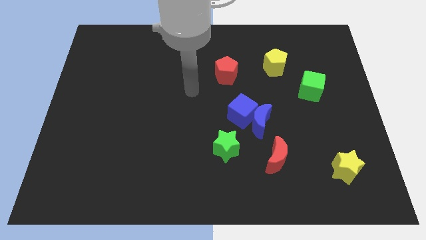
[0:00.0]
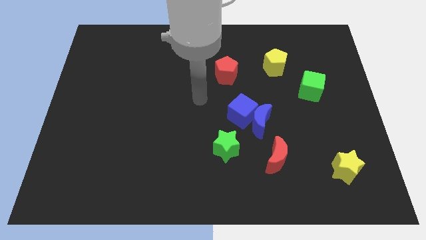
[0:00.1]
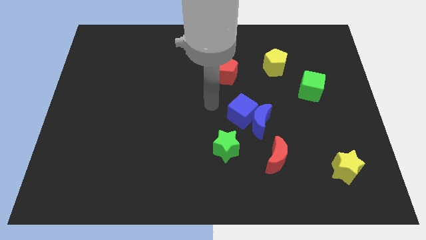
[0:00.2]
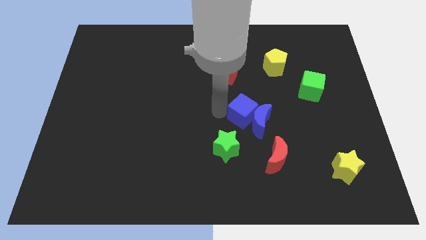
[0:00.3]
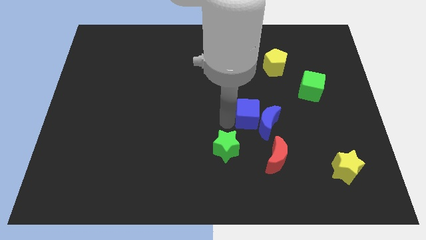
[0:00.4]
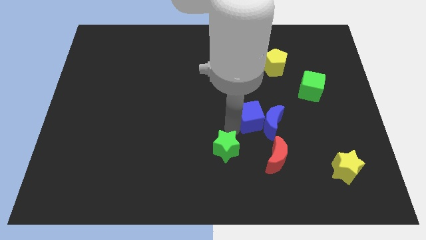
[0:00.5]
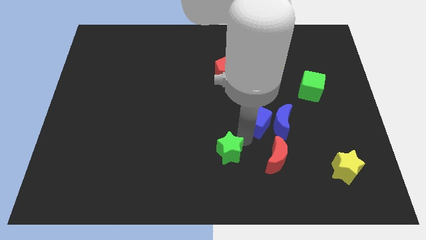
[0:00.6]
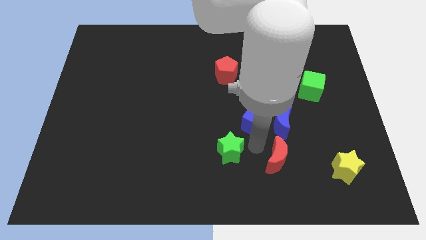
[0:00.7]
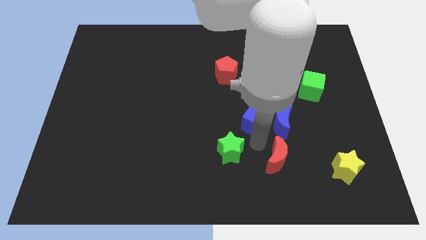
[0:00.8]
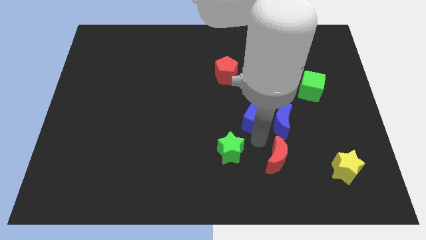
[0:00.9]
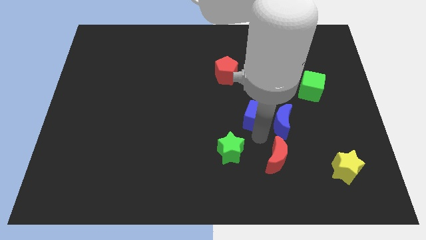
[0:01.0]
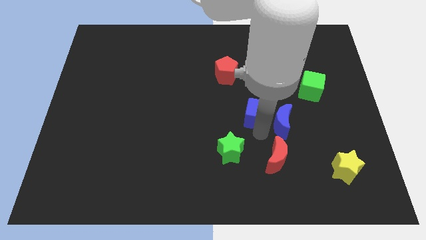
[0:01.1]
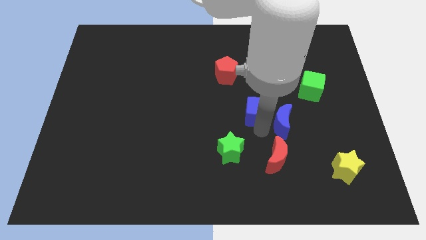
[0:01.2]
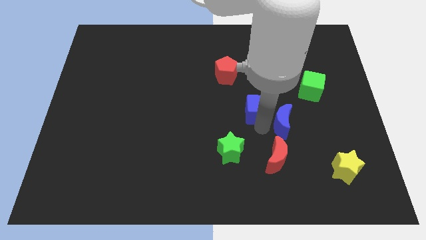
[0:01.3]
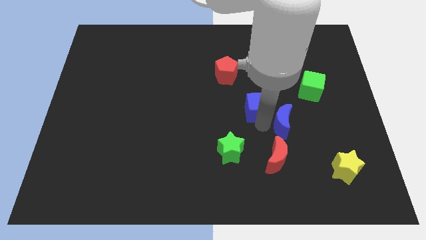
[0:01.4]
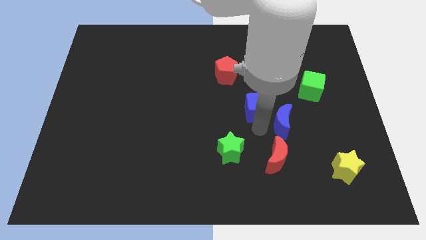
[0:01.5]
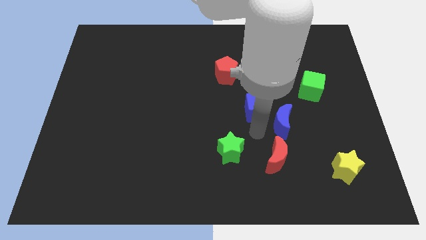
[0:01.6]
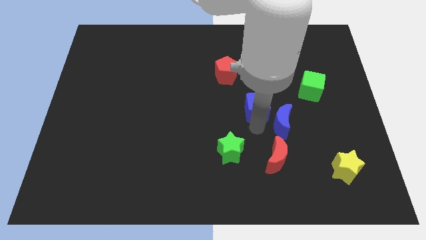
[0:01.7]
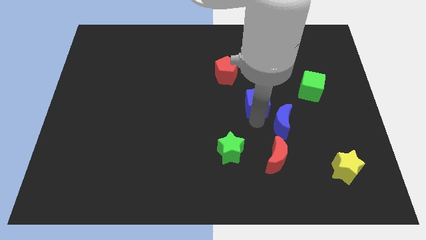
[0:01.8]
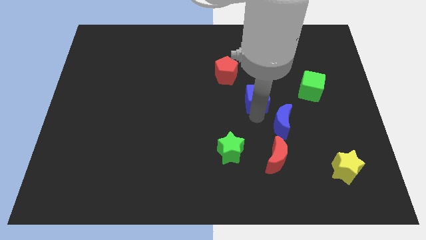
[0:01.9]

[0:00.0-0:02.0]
separate the blue cube from the blue moon and green star

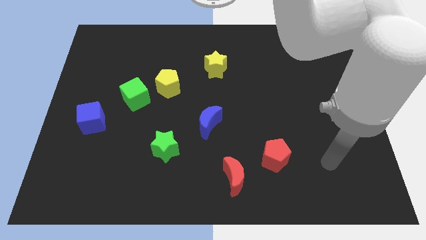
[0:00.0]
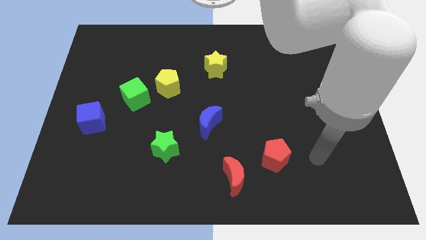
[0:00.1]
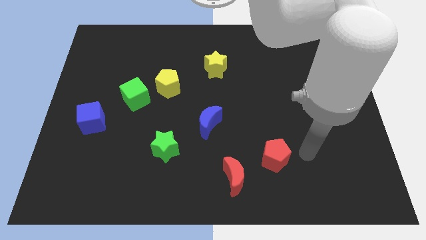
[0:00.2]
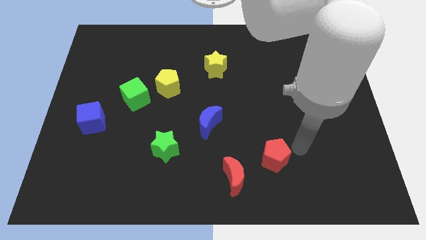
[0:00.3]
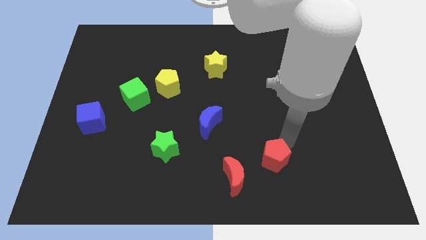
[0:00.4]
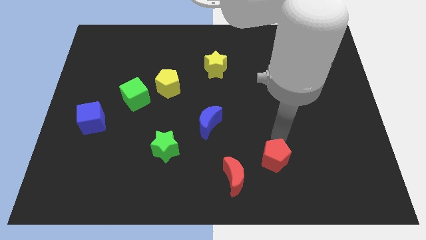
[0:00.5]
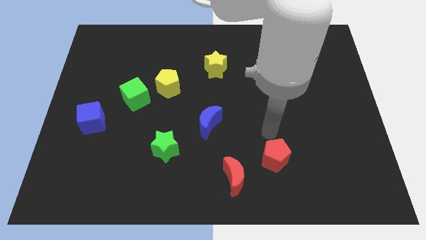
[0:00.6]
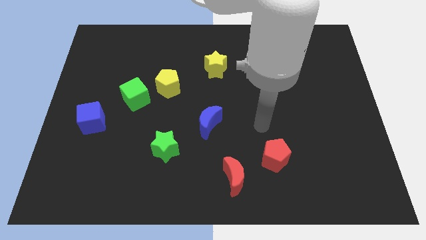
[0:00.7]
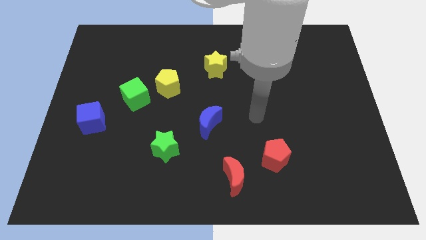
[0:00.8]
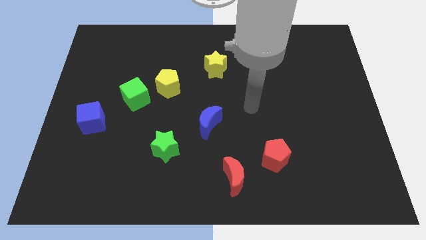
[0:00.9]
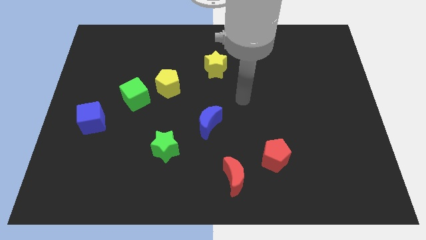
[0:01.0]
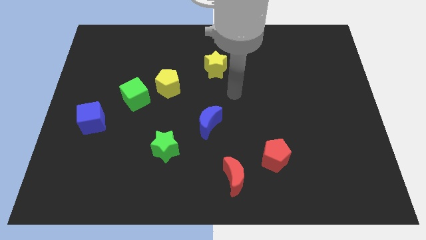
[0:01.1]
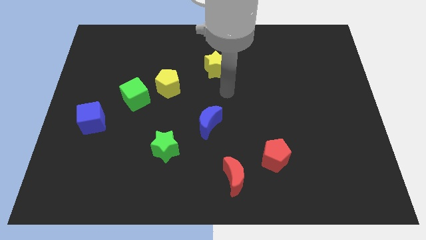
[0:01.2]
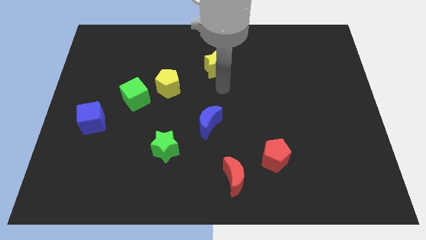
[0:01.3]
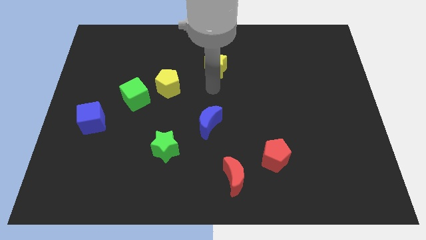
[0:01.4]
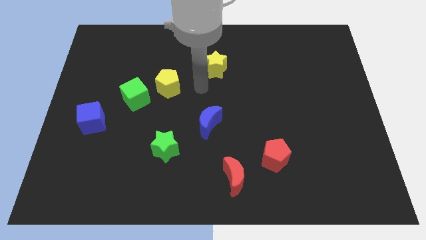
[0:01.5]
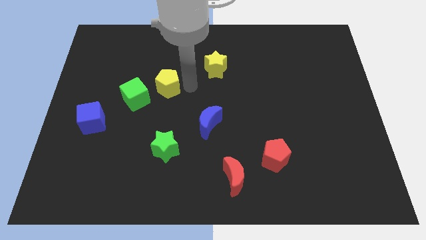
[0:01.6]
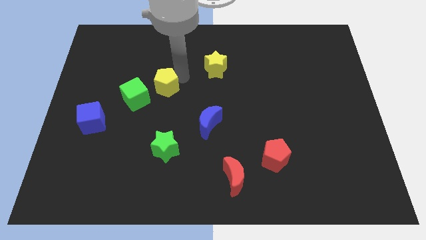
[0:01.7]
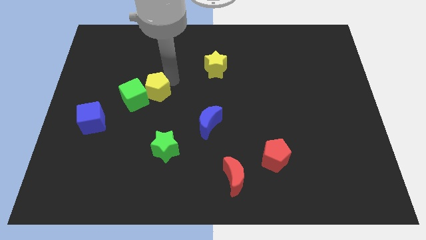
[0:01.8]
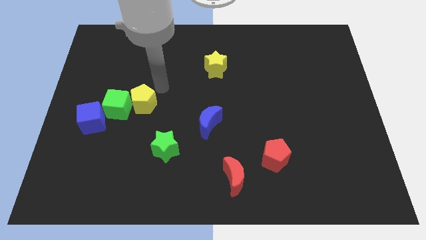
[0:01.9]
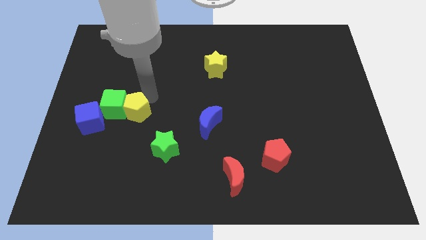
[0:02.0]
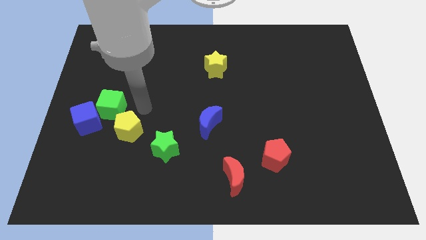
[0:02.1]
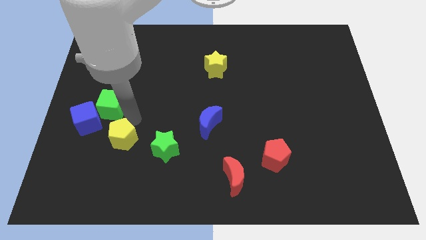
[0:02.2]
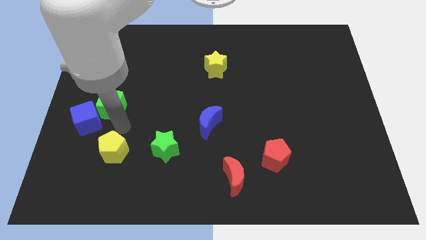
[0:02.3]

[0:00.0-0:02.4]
pull the green cube apart from the yellow pentagon

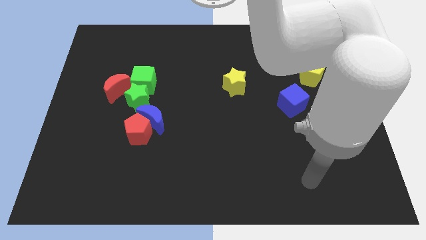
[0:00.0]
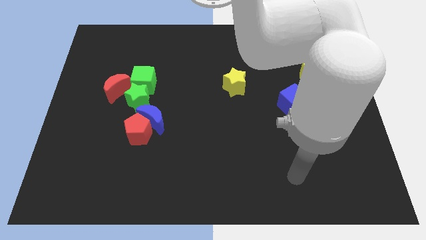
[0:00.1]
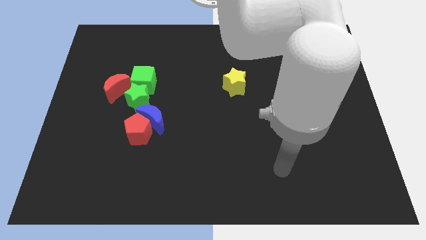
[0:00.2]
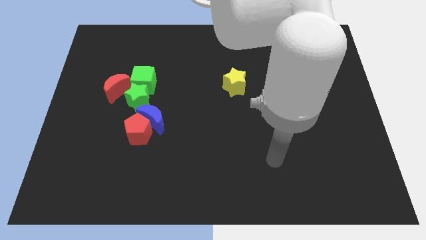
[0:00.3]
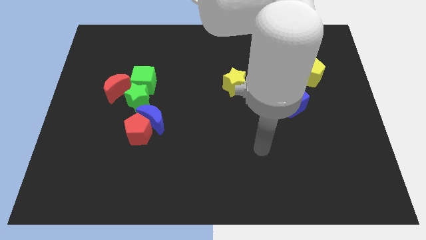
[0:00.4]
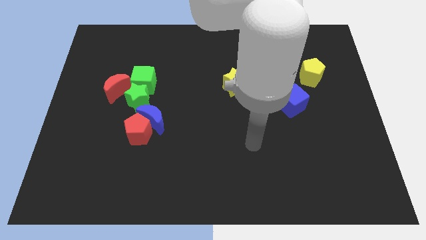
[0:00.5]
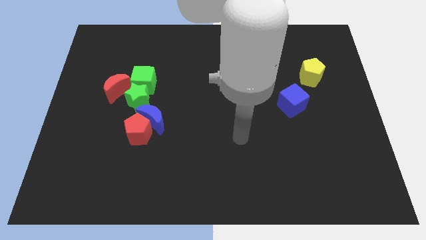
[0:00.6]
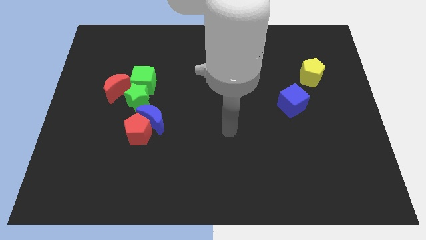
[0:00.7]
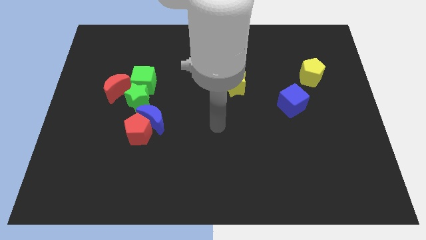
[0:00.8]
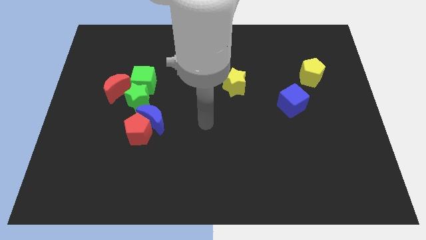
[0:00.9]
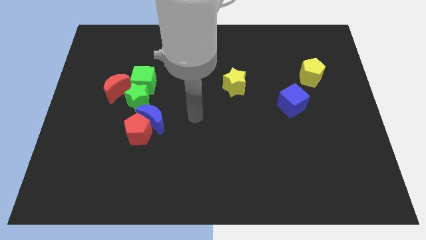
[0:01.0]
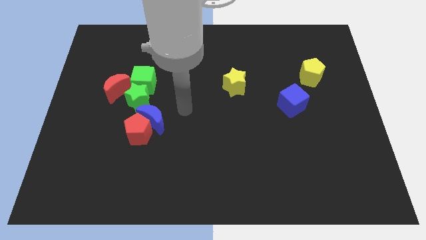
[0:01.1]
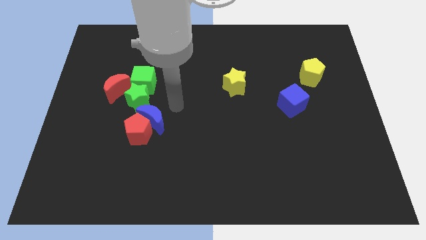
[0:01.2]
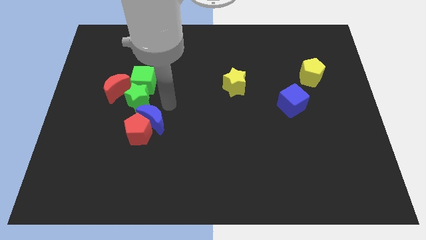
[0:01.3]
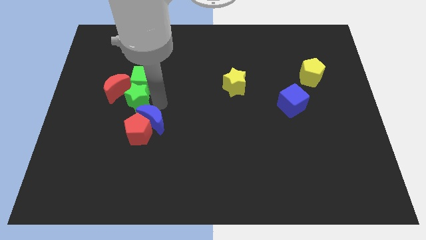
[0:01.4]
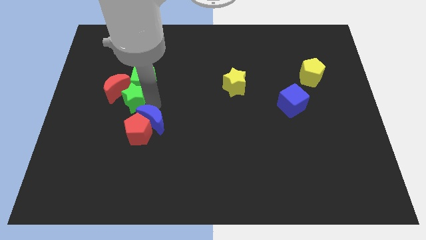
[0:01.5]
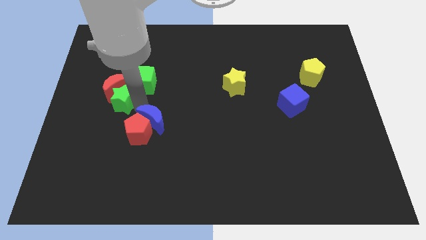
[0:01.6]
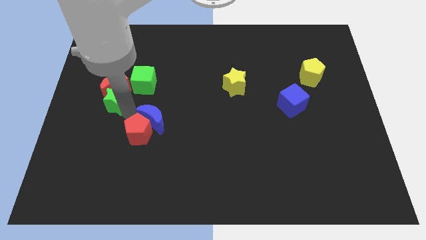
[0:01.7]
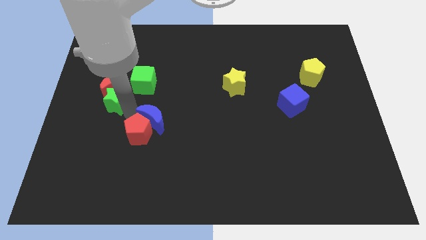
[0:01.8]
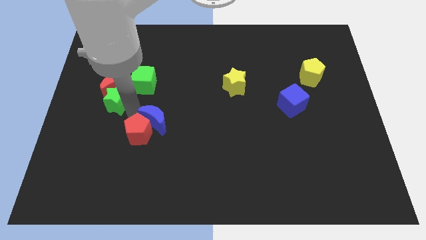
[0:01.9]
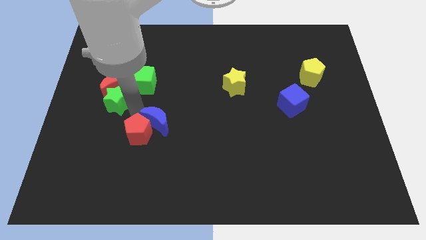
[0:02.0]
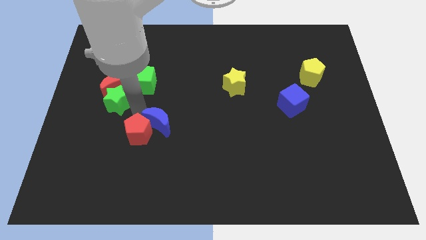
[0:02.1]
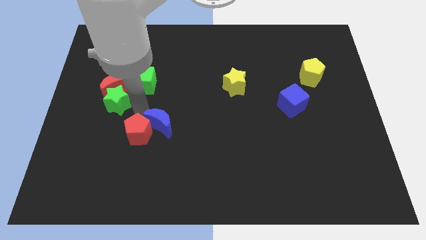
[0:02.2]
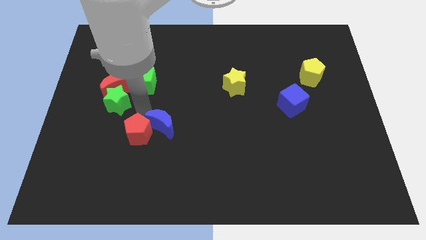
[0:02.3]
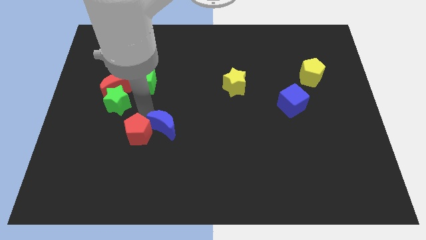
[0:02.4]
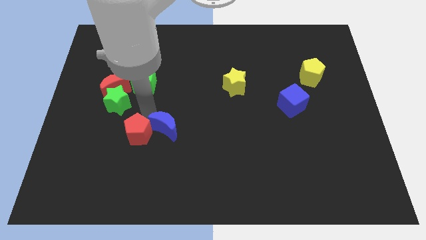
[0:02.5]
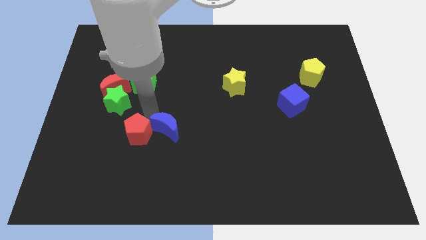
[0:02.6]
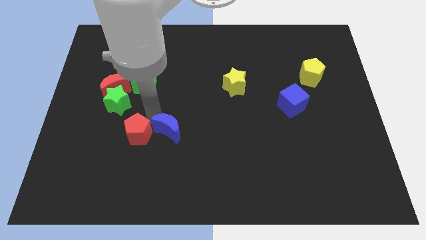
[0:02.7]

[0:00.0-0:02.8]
pull the blue moon apart from the red pentagon and green star

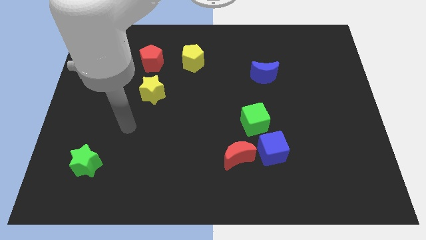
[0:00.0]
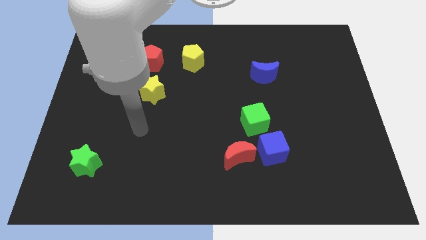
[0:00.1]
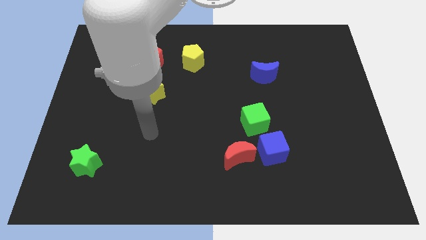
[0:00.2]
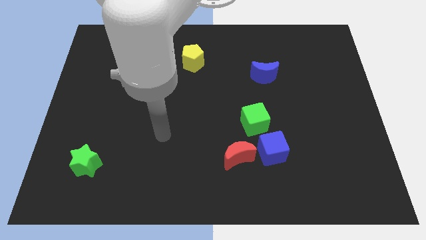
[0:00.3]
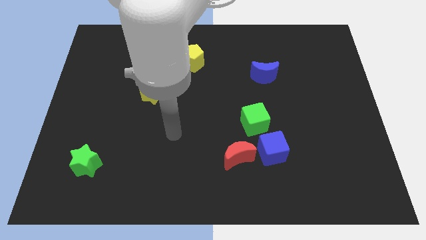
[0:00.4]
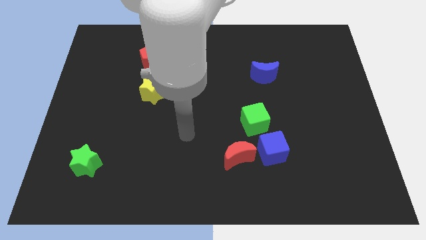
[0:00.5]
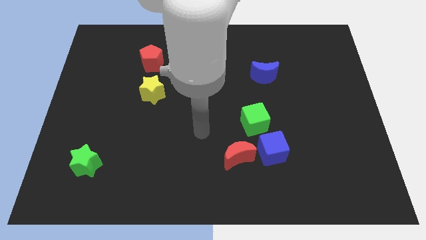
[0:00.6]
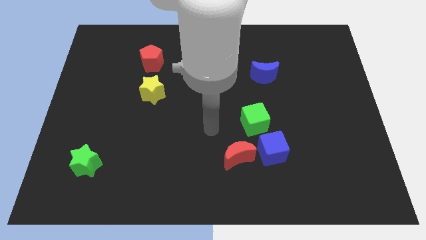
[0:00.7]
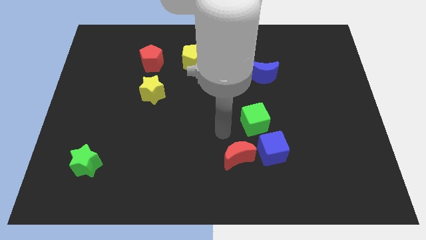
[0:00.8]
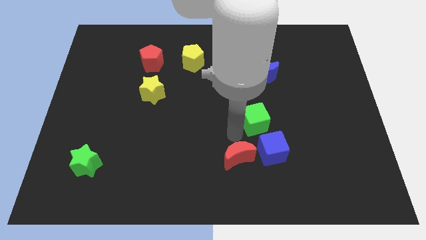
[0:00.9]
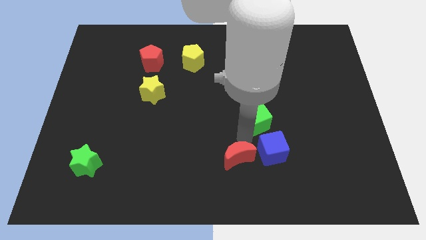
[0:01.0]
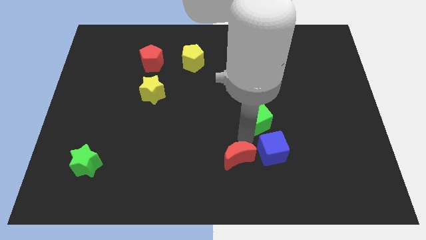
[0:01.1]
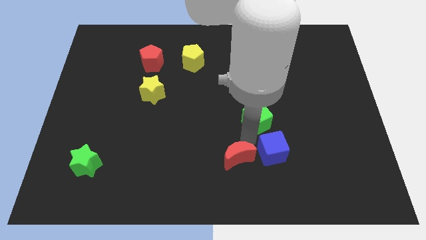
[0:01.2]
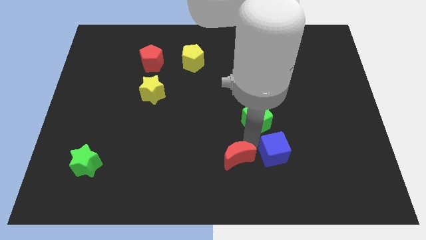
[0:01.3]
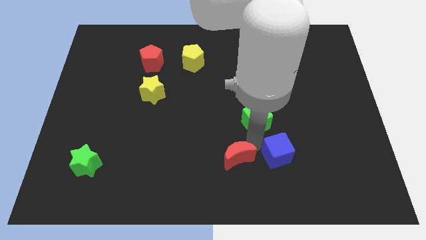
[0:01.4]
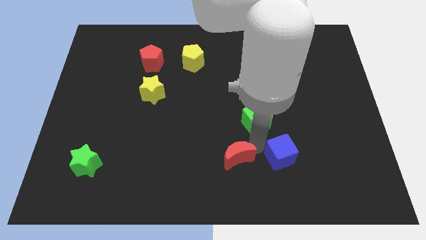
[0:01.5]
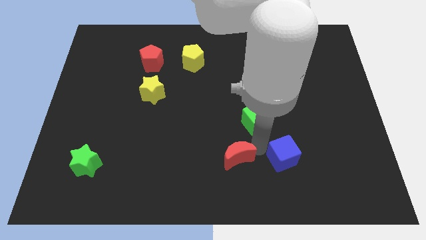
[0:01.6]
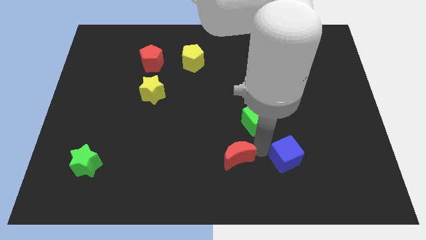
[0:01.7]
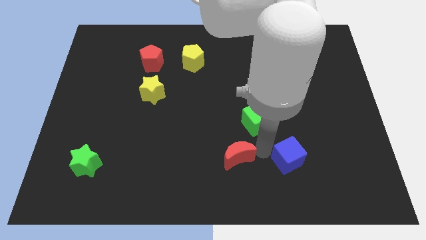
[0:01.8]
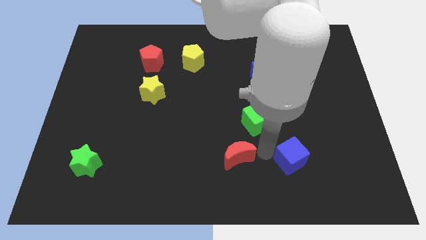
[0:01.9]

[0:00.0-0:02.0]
separate the blue cube from the red moon and green cube
